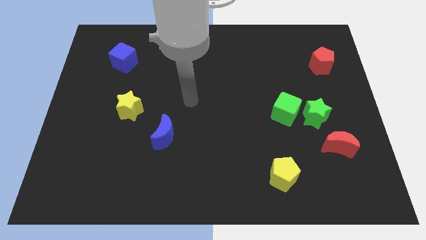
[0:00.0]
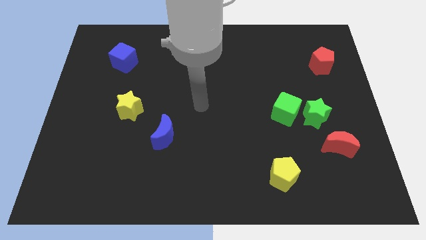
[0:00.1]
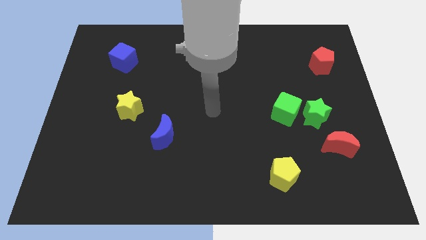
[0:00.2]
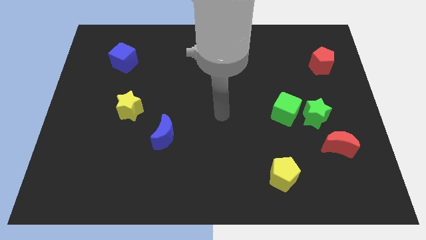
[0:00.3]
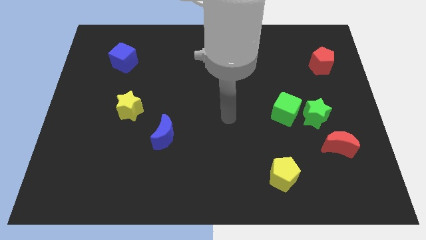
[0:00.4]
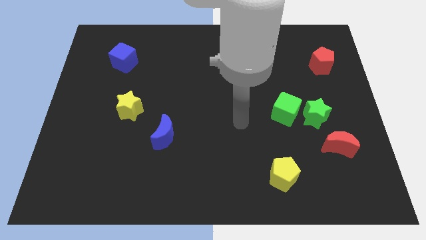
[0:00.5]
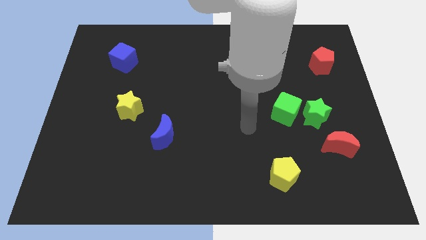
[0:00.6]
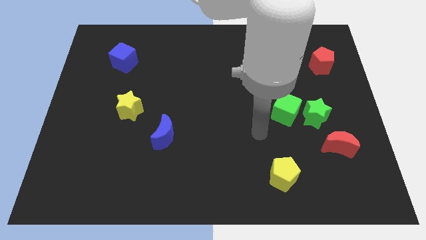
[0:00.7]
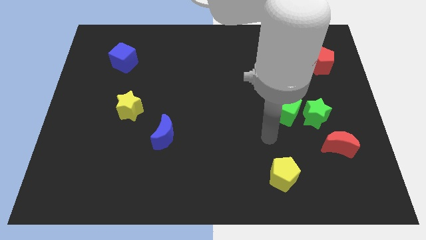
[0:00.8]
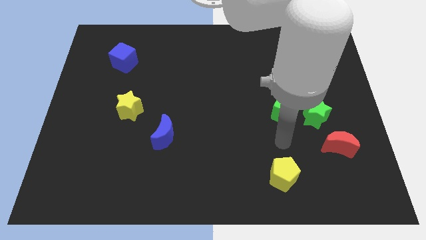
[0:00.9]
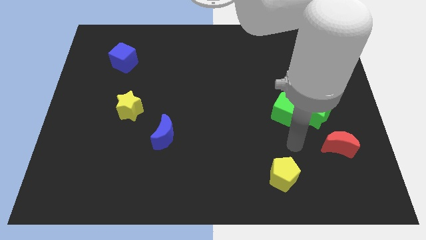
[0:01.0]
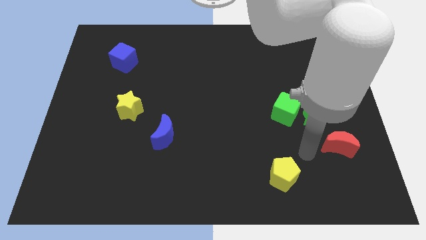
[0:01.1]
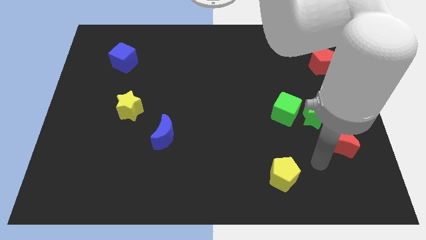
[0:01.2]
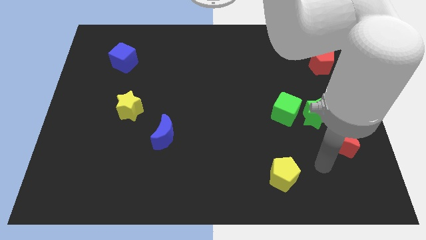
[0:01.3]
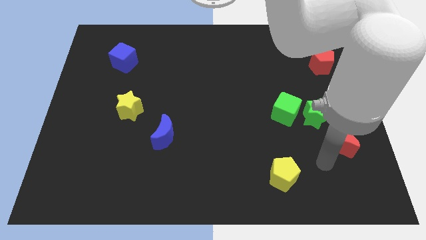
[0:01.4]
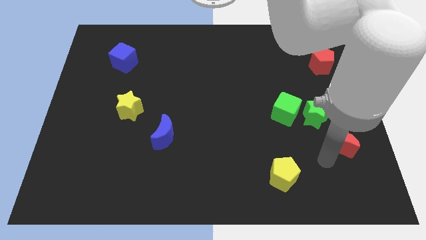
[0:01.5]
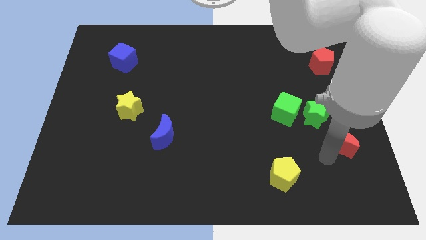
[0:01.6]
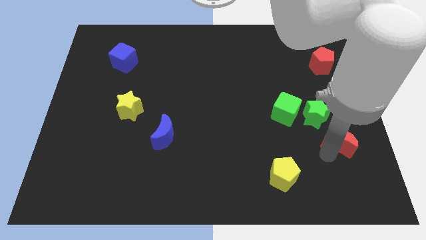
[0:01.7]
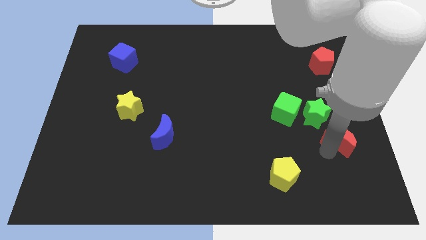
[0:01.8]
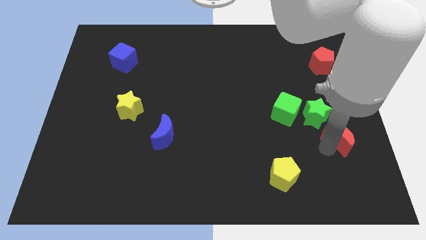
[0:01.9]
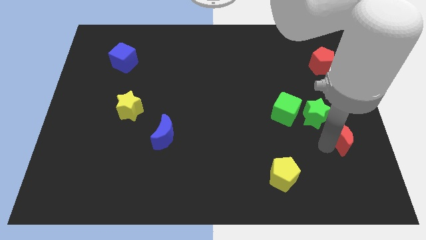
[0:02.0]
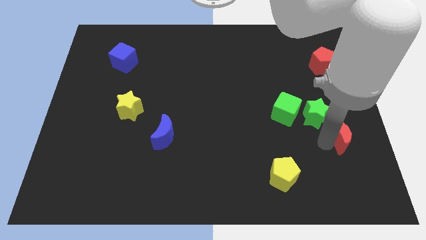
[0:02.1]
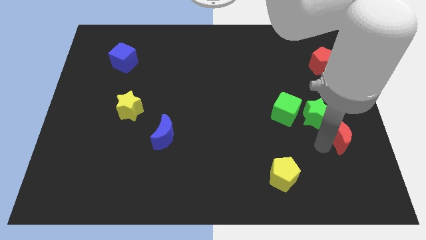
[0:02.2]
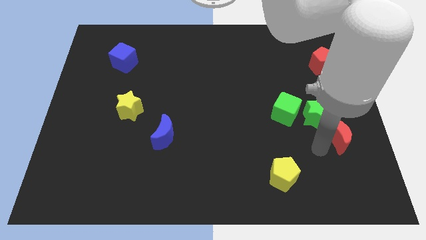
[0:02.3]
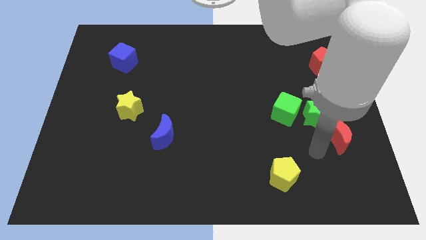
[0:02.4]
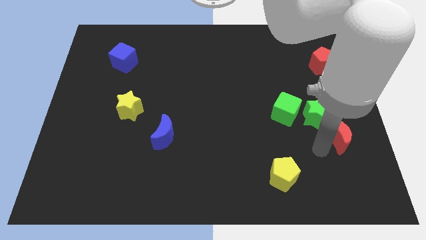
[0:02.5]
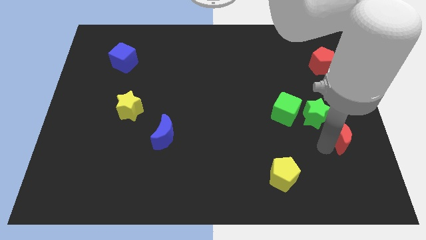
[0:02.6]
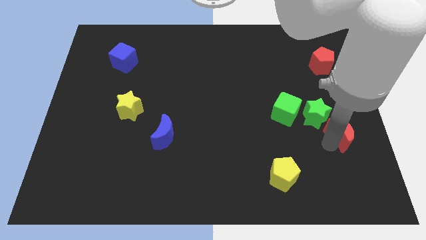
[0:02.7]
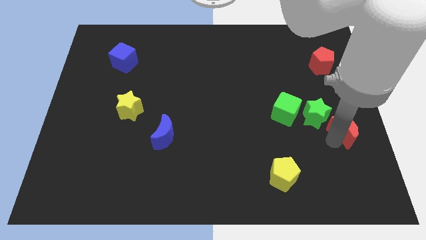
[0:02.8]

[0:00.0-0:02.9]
push the red moon to the right side

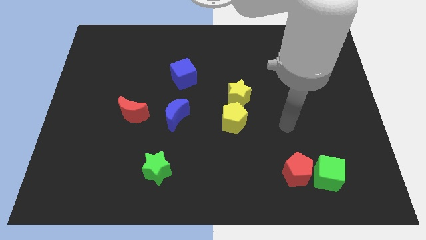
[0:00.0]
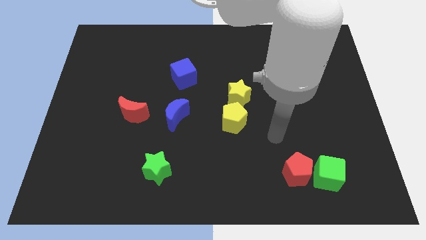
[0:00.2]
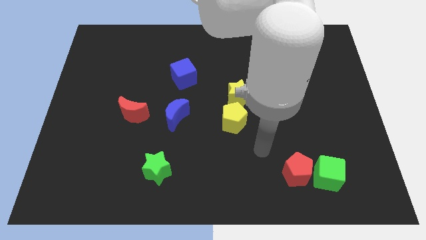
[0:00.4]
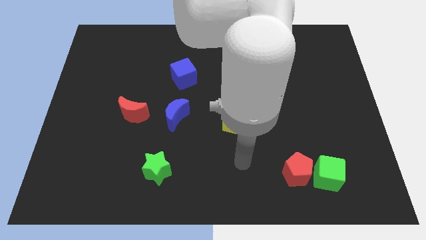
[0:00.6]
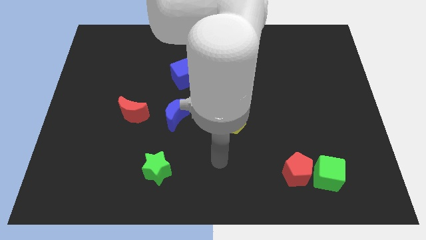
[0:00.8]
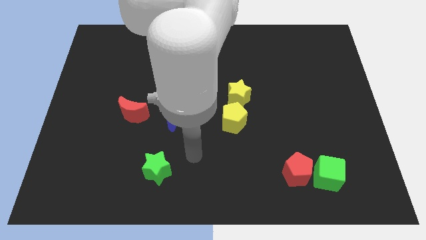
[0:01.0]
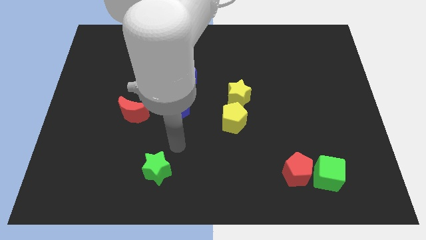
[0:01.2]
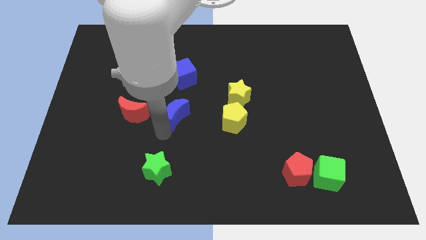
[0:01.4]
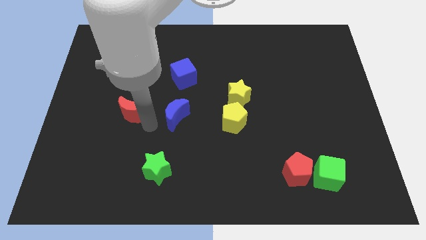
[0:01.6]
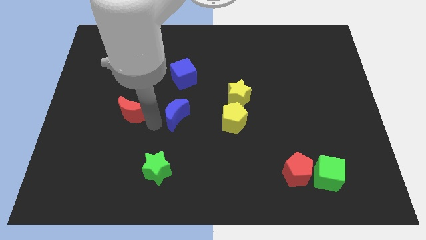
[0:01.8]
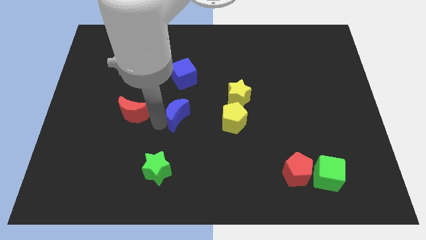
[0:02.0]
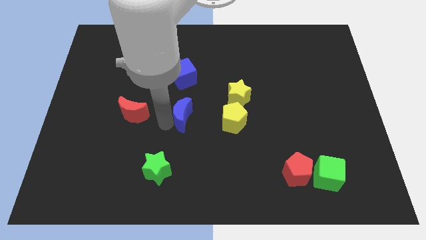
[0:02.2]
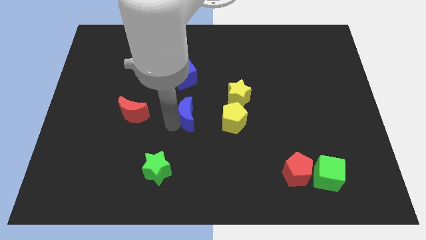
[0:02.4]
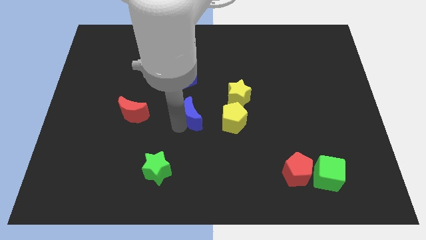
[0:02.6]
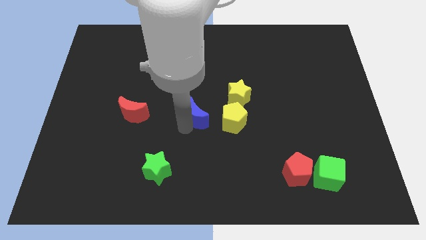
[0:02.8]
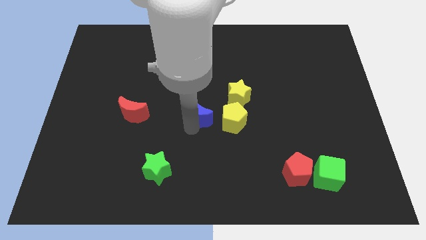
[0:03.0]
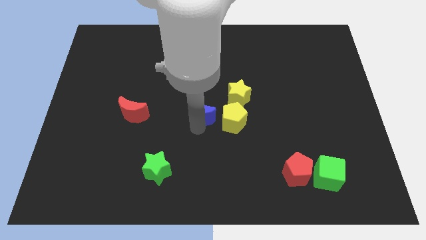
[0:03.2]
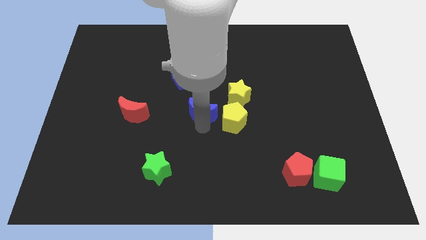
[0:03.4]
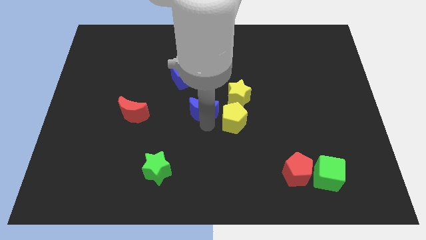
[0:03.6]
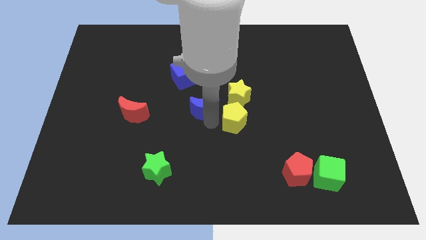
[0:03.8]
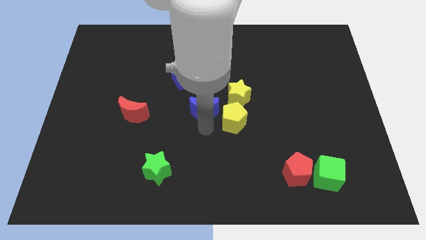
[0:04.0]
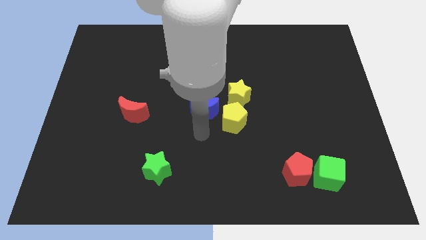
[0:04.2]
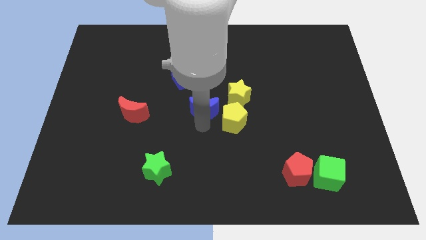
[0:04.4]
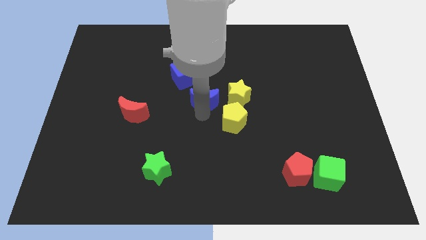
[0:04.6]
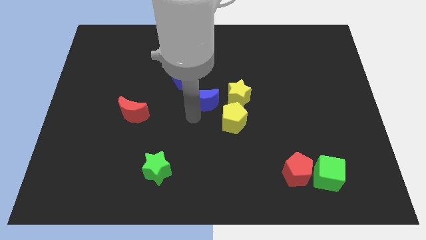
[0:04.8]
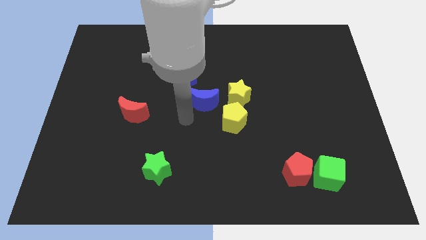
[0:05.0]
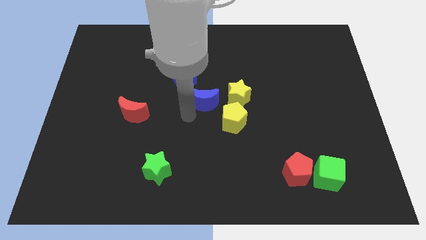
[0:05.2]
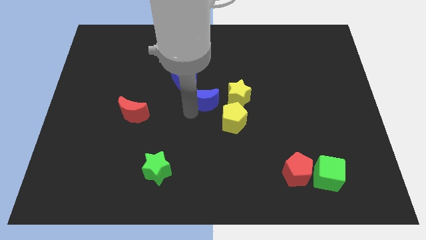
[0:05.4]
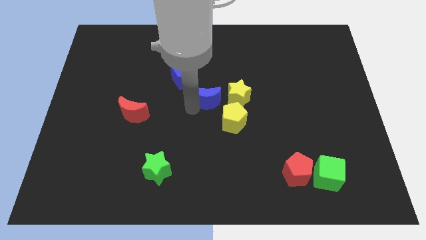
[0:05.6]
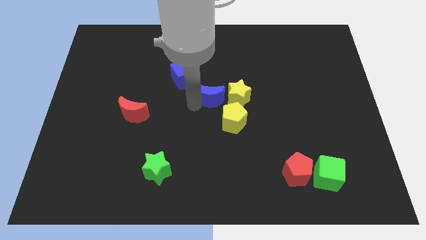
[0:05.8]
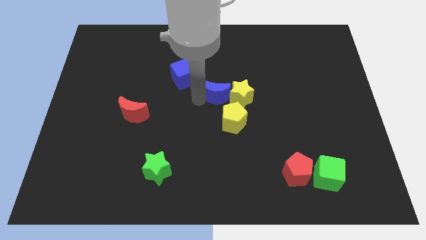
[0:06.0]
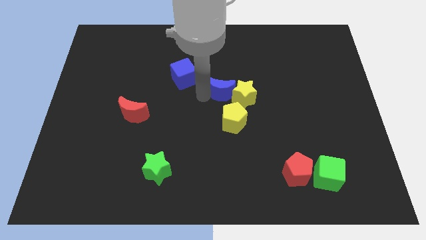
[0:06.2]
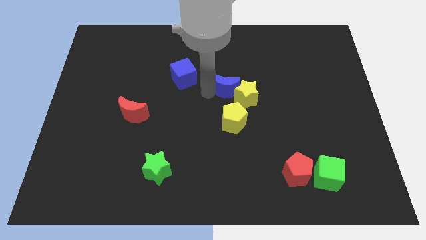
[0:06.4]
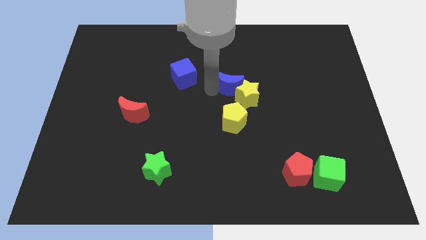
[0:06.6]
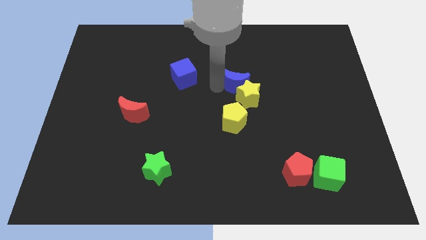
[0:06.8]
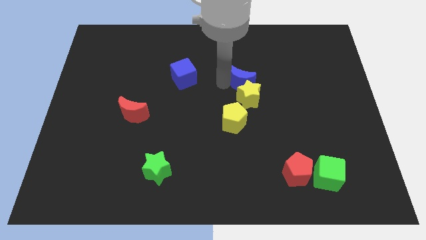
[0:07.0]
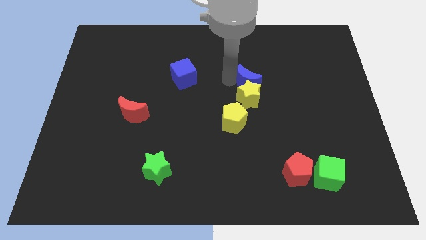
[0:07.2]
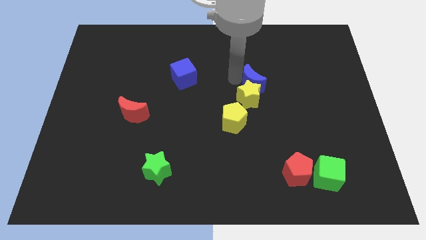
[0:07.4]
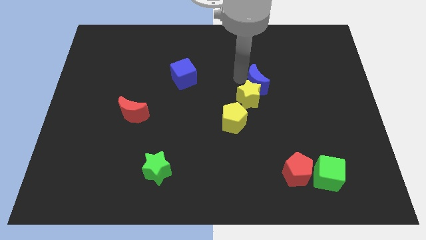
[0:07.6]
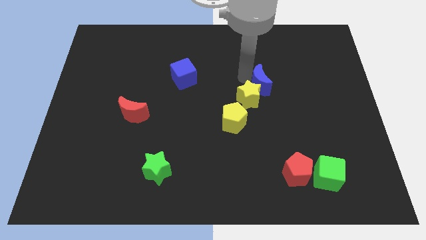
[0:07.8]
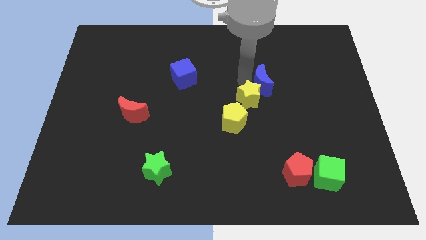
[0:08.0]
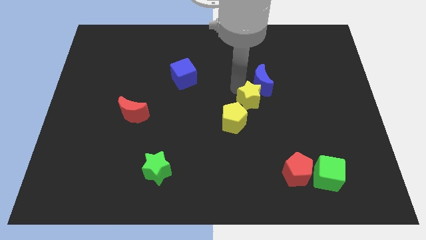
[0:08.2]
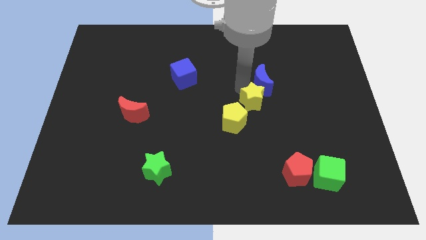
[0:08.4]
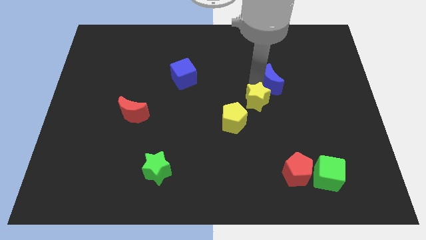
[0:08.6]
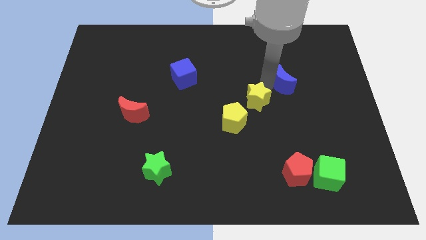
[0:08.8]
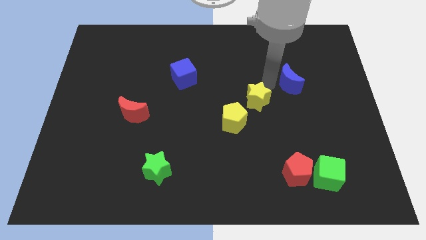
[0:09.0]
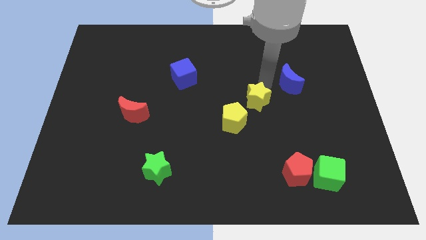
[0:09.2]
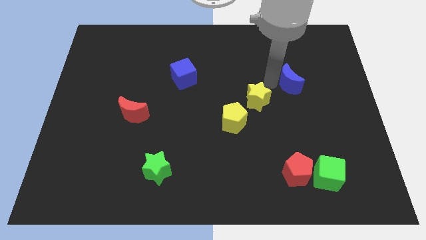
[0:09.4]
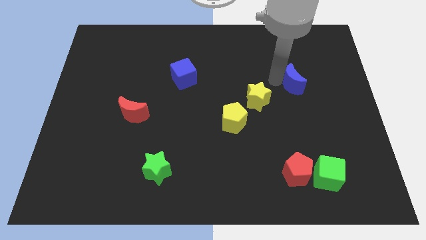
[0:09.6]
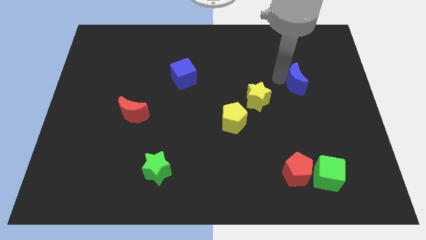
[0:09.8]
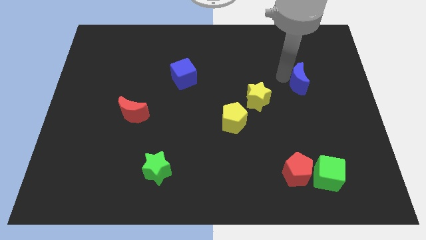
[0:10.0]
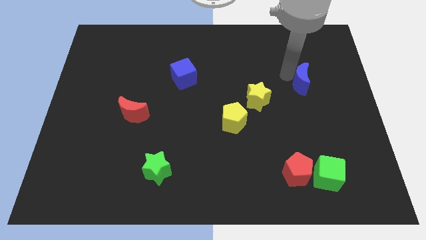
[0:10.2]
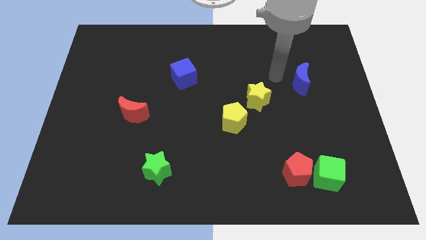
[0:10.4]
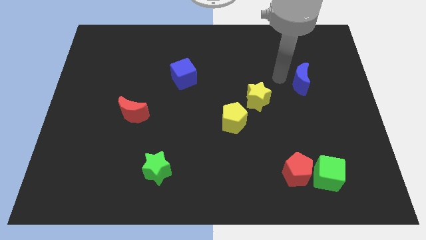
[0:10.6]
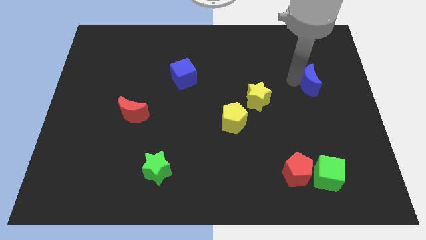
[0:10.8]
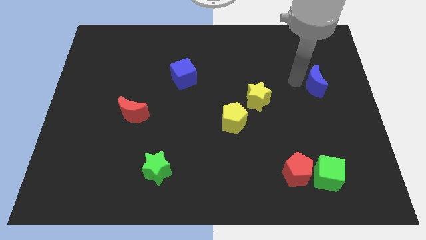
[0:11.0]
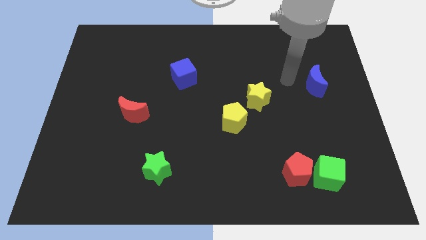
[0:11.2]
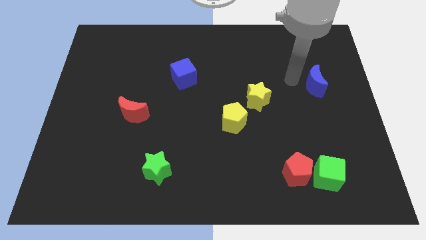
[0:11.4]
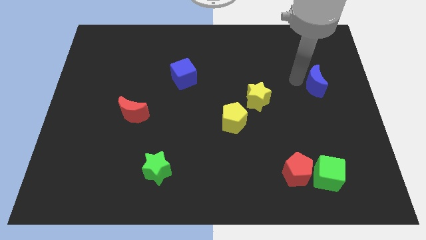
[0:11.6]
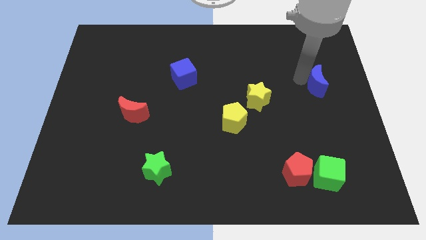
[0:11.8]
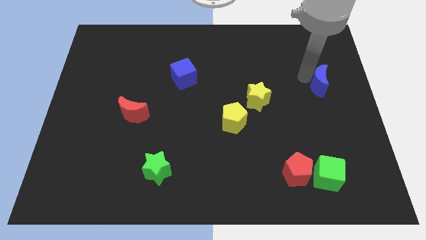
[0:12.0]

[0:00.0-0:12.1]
slide the blue moon to the right side
